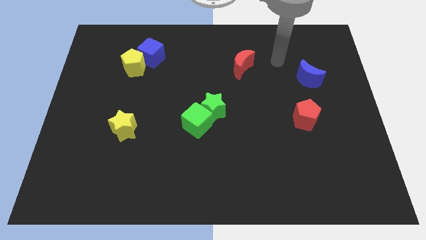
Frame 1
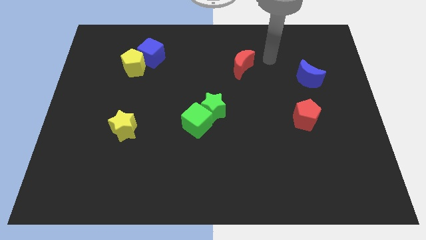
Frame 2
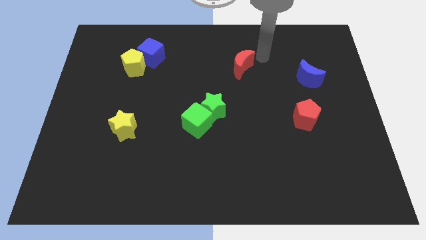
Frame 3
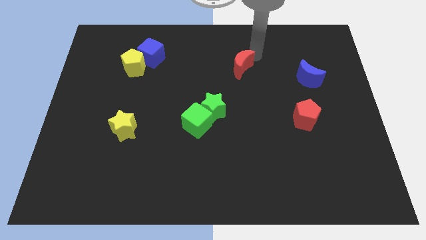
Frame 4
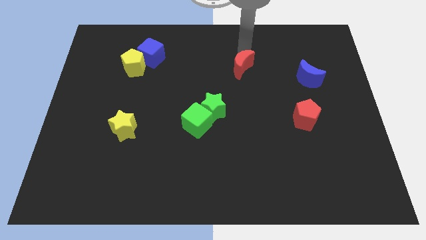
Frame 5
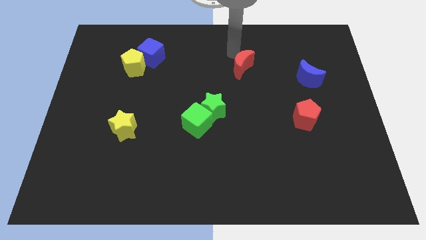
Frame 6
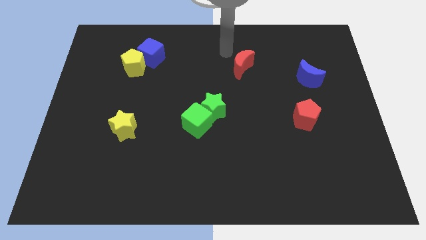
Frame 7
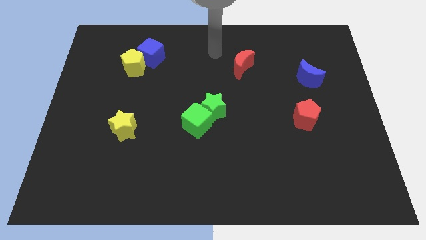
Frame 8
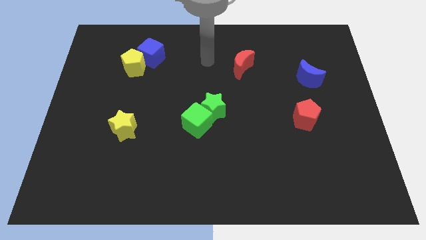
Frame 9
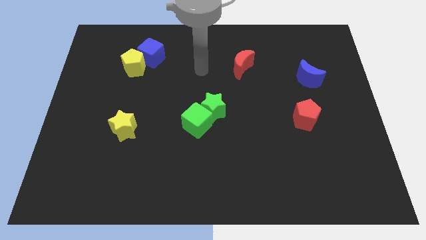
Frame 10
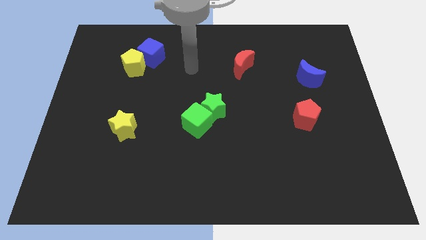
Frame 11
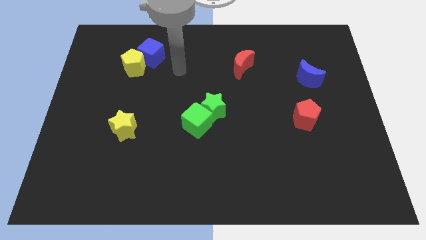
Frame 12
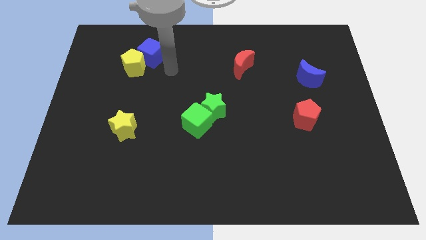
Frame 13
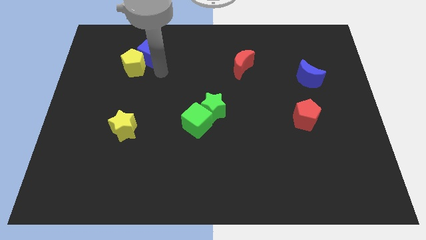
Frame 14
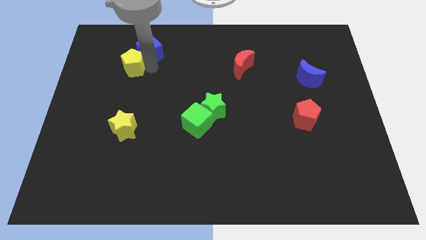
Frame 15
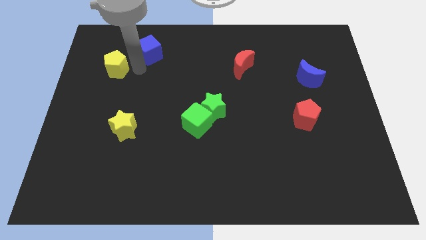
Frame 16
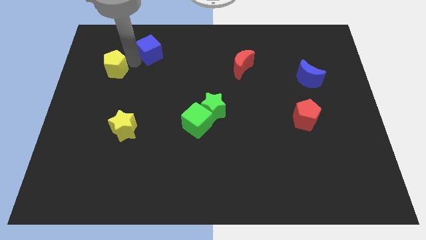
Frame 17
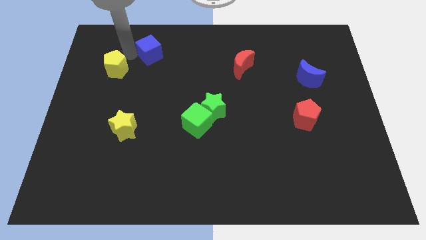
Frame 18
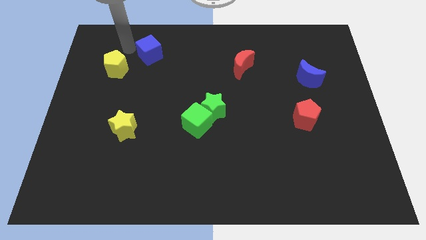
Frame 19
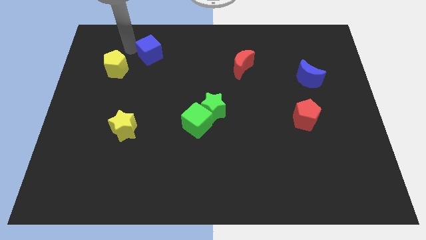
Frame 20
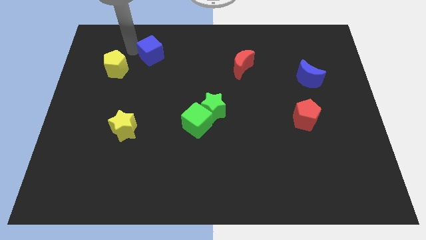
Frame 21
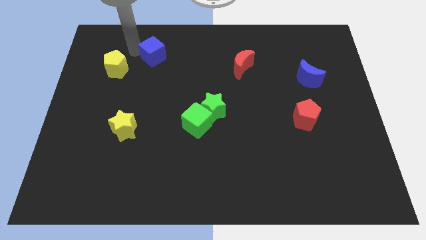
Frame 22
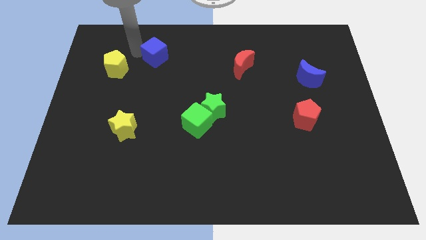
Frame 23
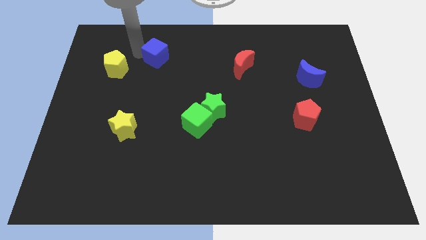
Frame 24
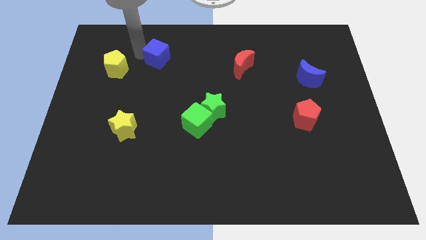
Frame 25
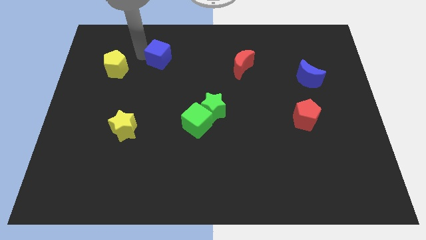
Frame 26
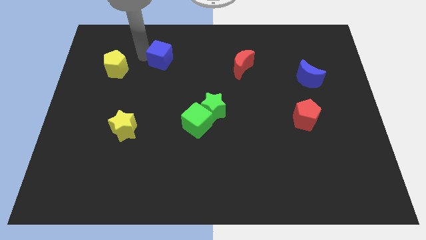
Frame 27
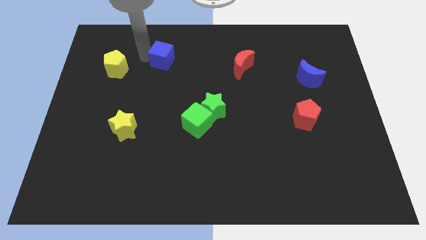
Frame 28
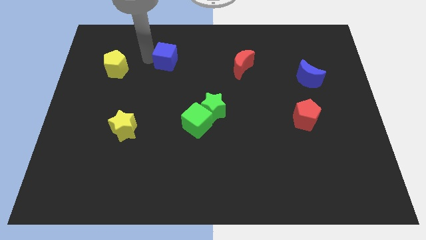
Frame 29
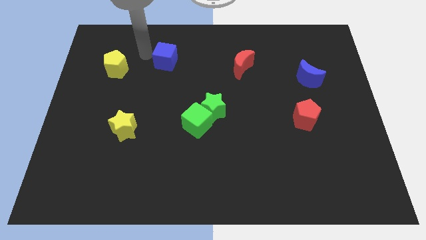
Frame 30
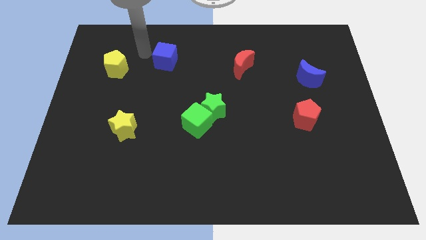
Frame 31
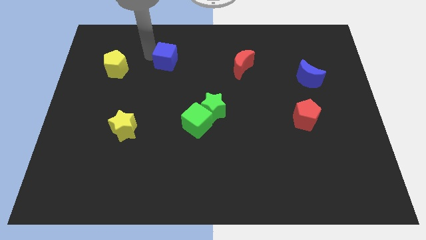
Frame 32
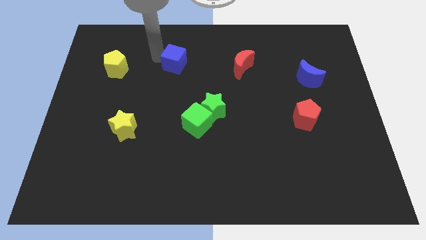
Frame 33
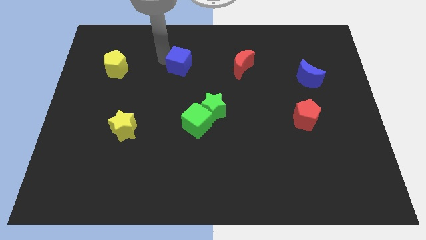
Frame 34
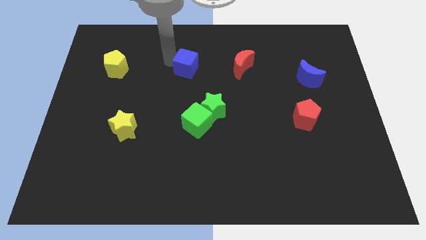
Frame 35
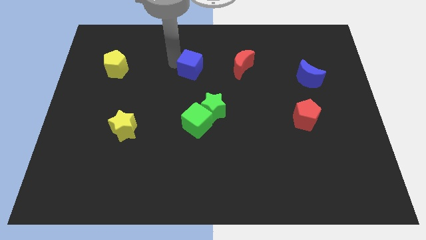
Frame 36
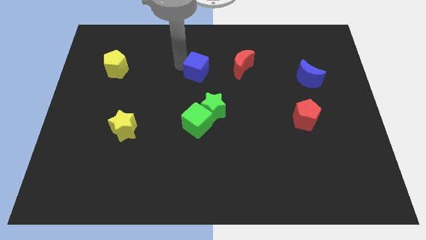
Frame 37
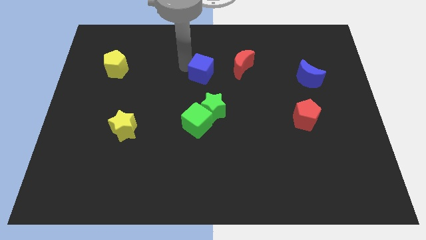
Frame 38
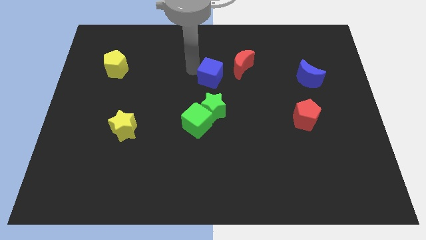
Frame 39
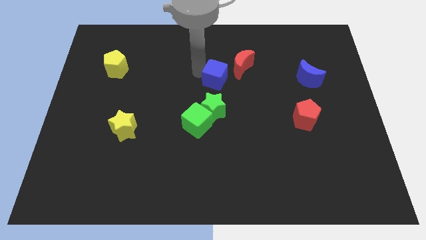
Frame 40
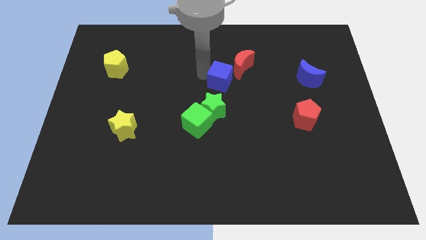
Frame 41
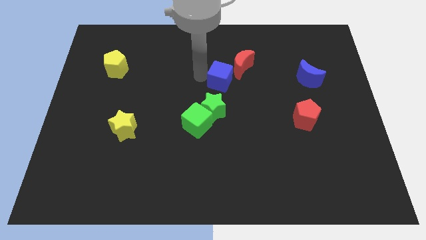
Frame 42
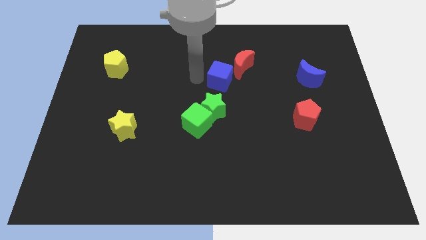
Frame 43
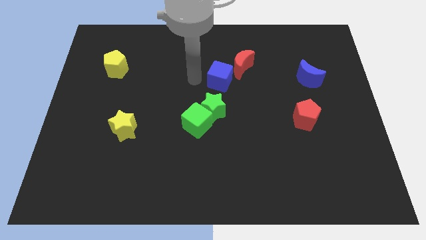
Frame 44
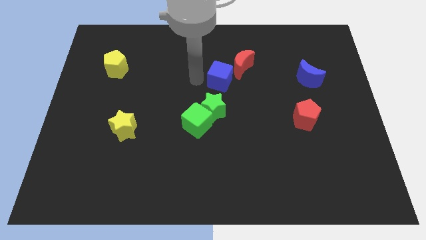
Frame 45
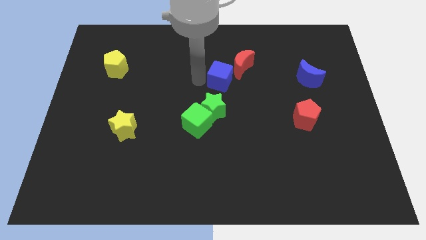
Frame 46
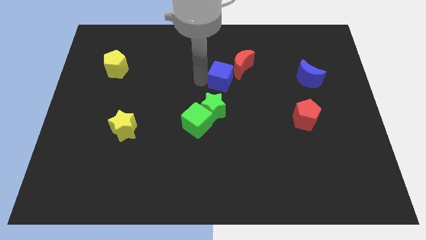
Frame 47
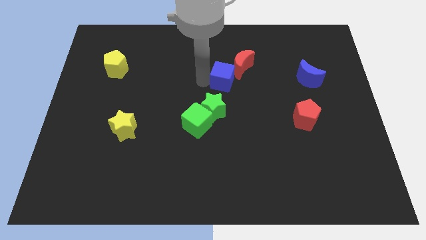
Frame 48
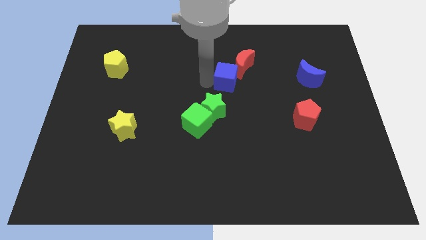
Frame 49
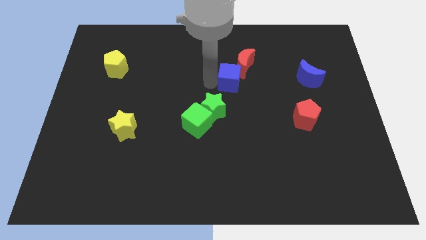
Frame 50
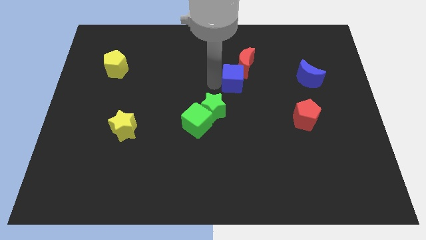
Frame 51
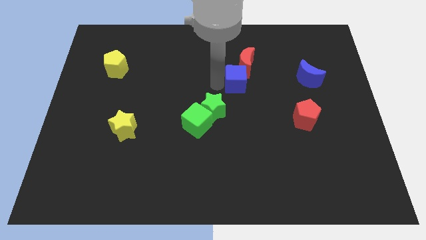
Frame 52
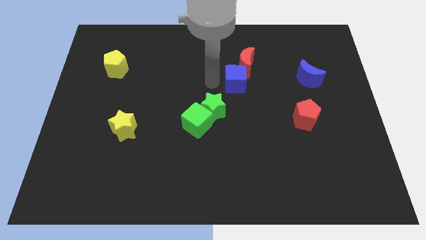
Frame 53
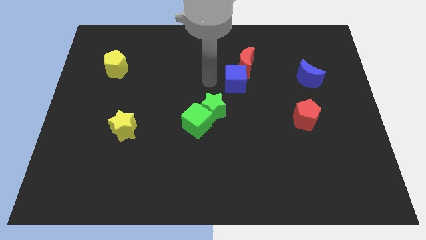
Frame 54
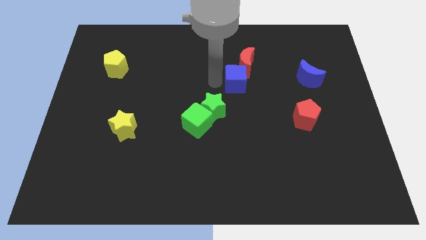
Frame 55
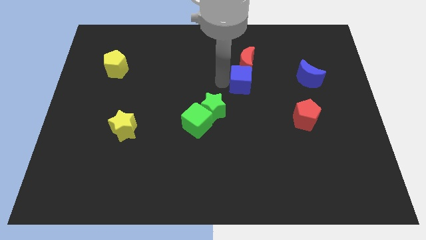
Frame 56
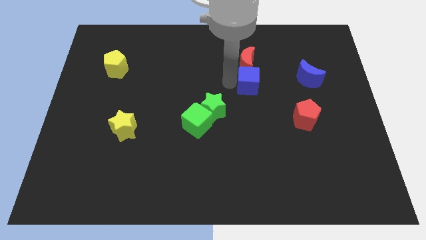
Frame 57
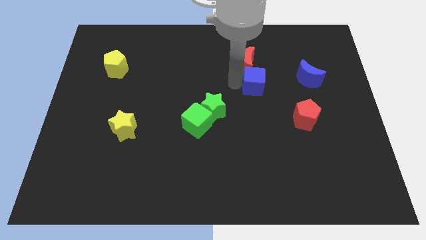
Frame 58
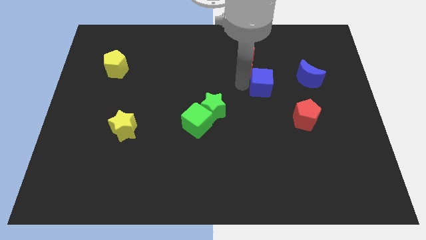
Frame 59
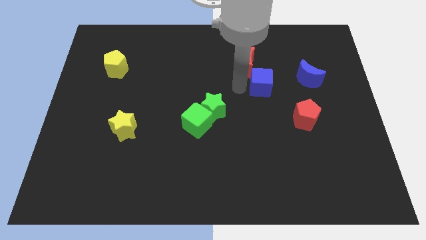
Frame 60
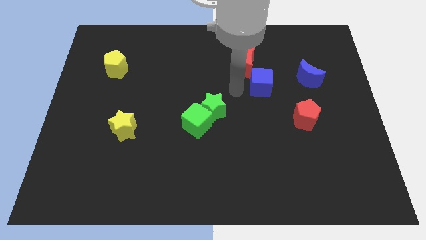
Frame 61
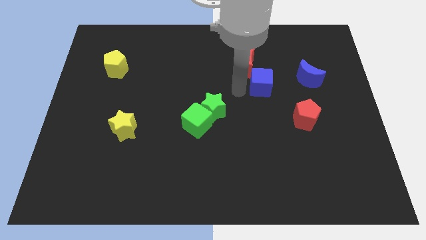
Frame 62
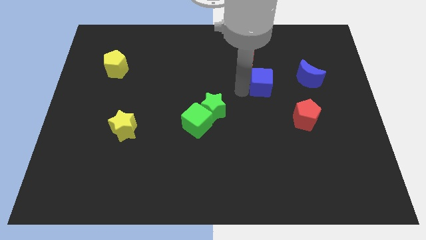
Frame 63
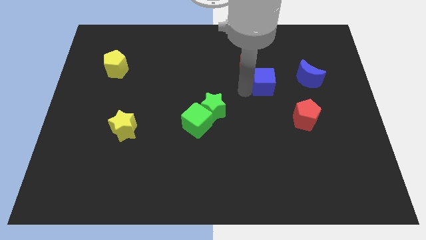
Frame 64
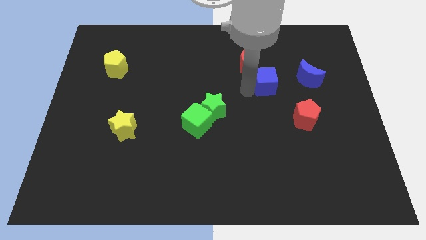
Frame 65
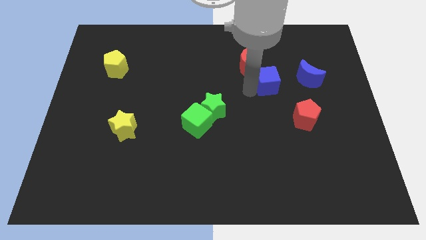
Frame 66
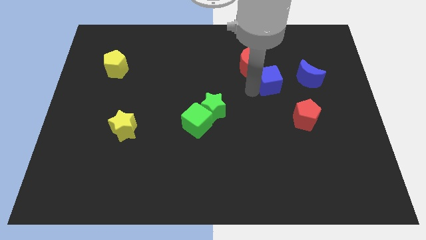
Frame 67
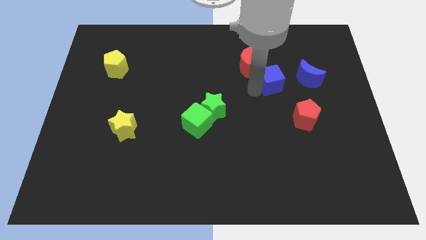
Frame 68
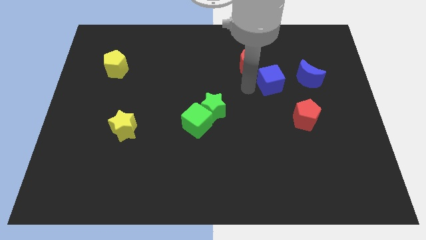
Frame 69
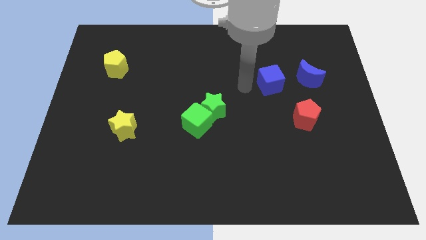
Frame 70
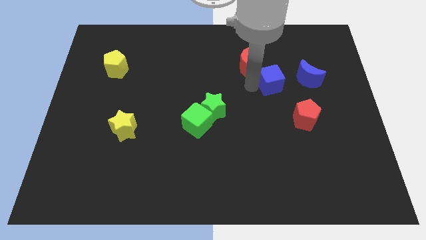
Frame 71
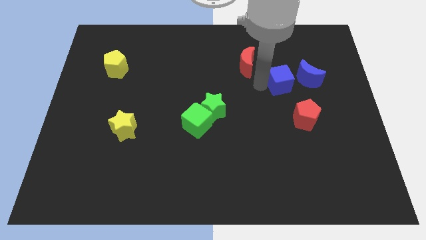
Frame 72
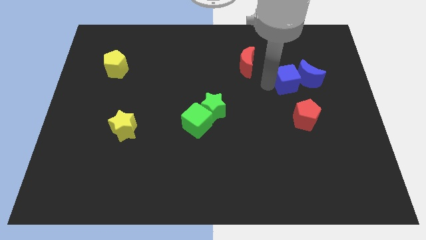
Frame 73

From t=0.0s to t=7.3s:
put the blue cube next to the blue moon

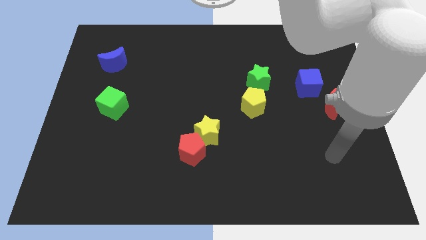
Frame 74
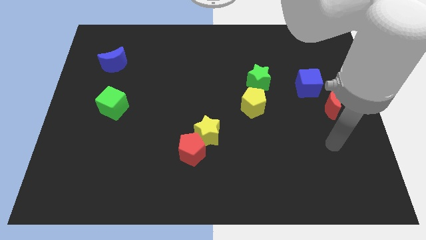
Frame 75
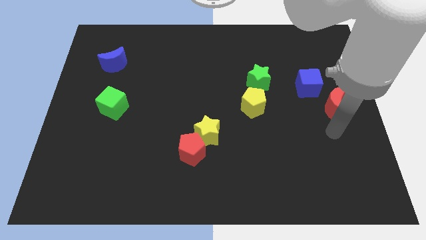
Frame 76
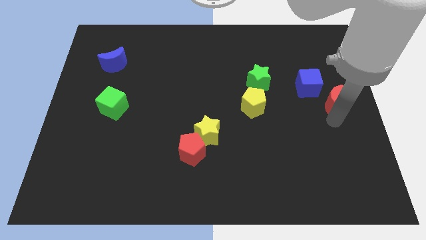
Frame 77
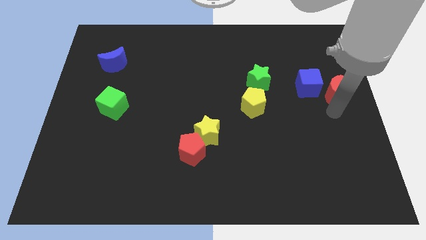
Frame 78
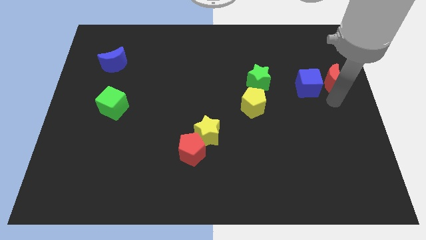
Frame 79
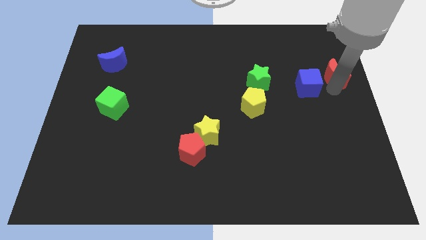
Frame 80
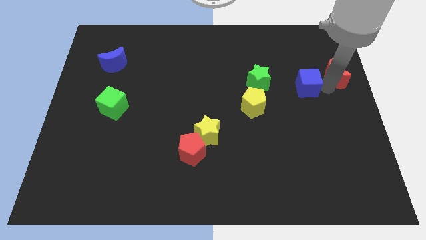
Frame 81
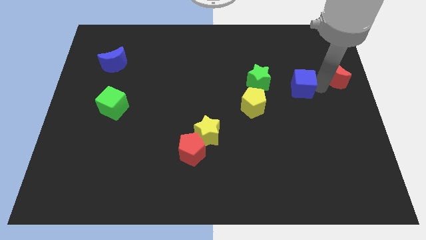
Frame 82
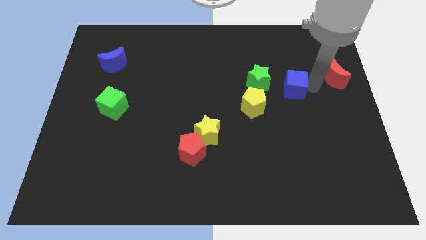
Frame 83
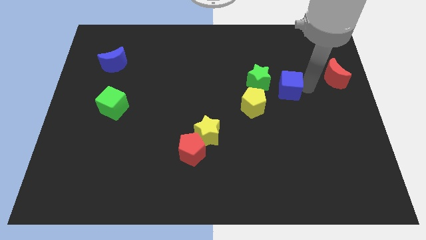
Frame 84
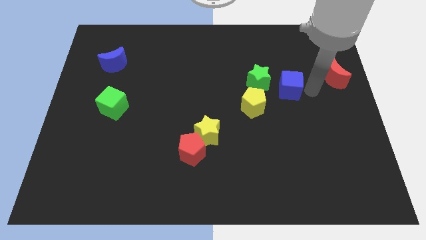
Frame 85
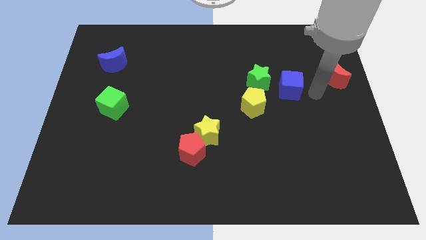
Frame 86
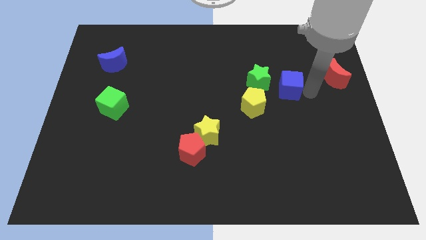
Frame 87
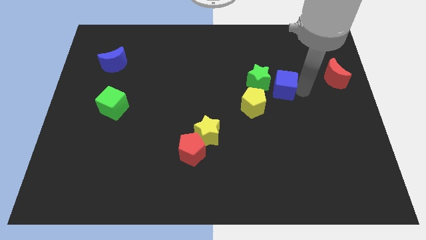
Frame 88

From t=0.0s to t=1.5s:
slide the blue cube towards the green star
